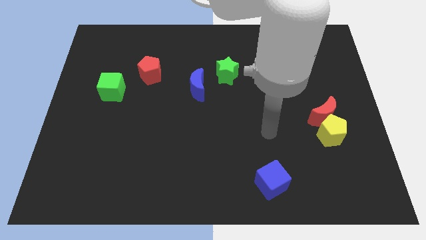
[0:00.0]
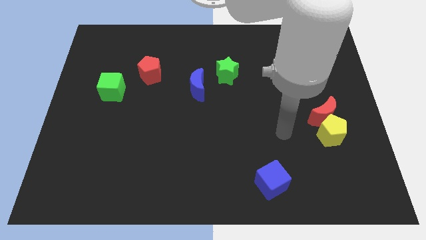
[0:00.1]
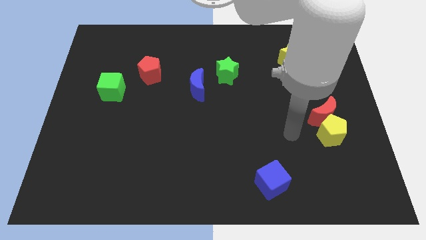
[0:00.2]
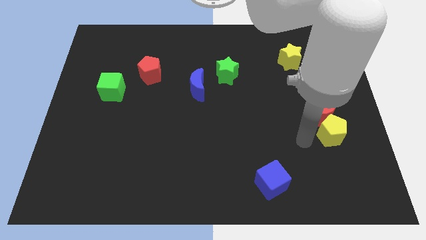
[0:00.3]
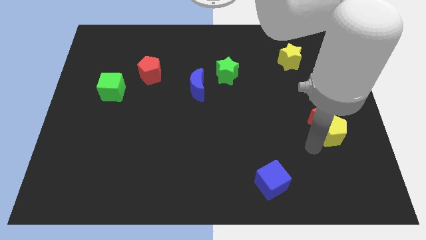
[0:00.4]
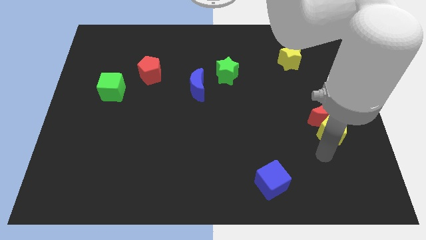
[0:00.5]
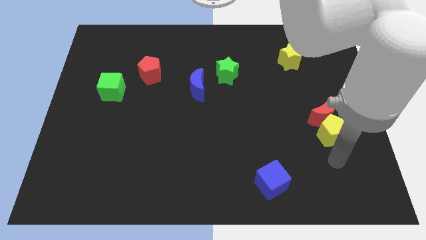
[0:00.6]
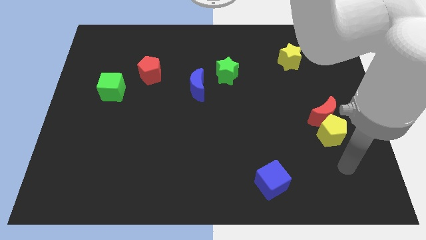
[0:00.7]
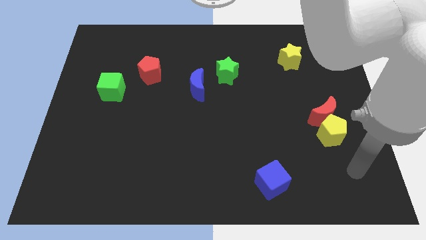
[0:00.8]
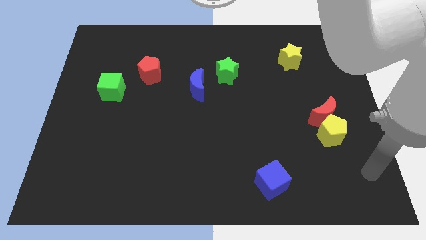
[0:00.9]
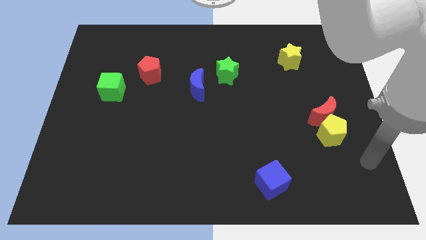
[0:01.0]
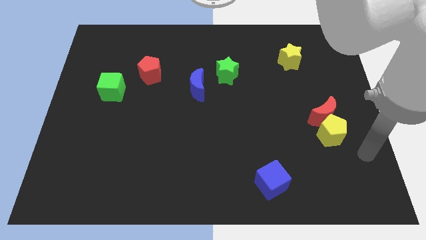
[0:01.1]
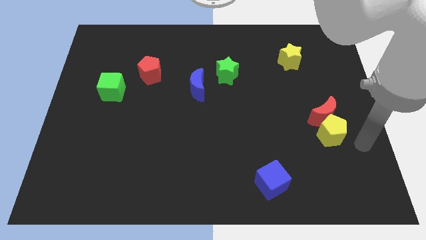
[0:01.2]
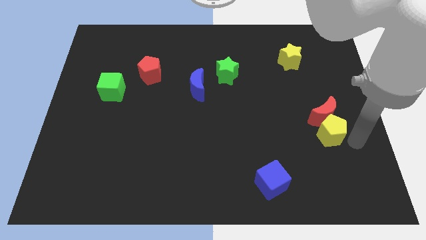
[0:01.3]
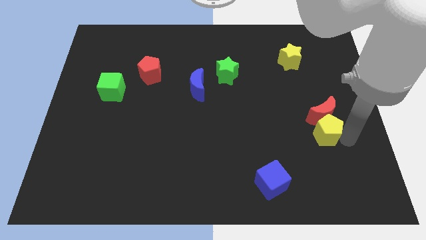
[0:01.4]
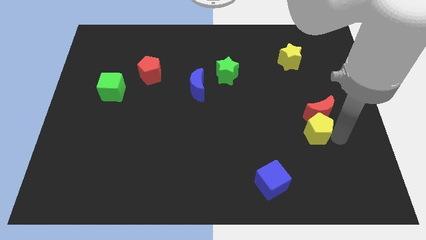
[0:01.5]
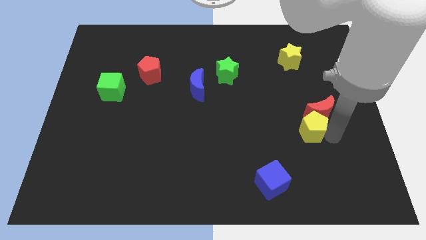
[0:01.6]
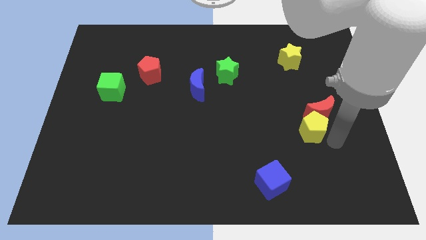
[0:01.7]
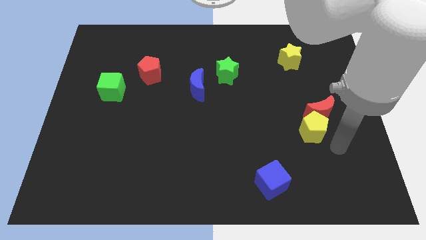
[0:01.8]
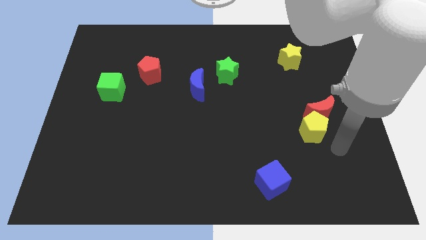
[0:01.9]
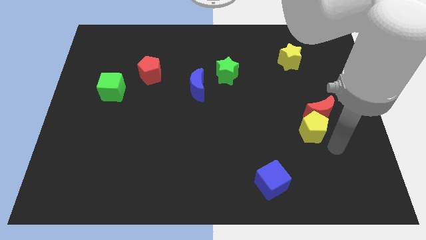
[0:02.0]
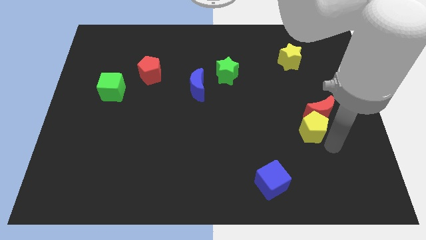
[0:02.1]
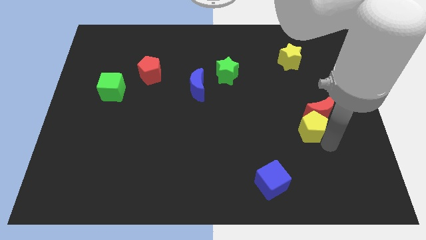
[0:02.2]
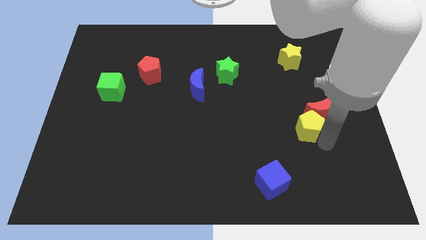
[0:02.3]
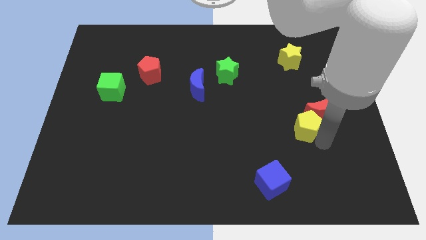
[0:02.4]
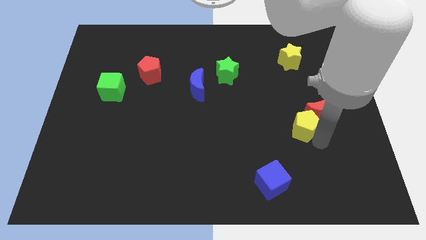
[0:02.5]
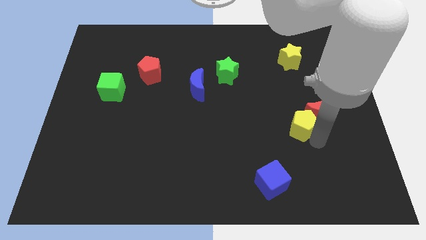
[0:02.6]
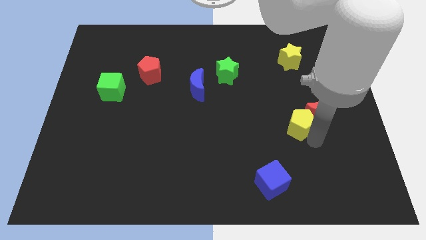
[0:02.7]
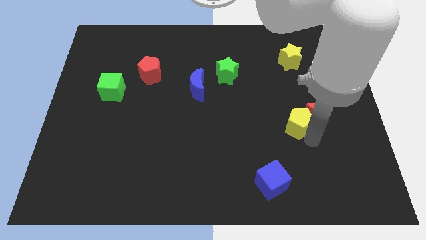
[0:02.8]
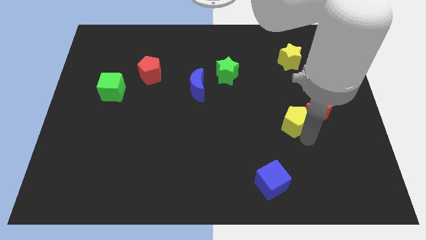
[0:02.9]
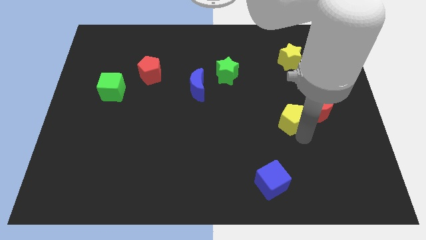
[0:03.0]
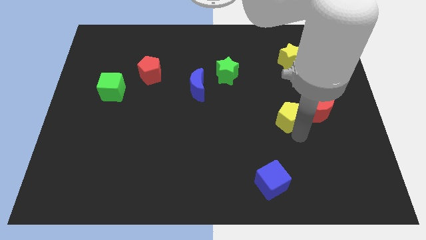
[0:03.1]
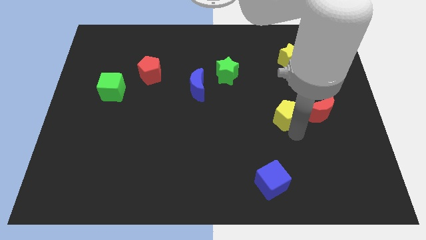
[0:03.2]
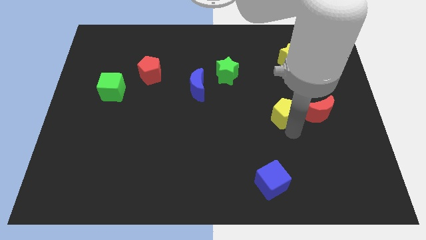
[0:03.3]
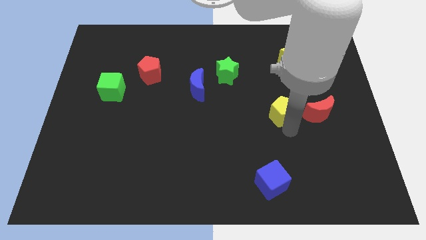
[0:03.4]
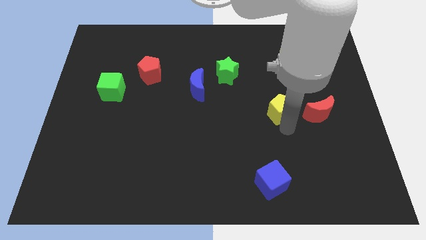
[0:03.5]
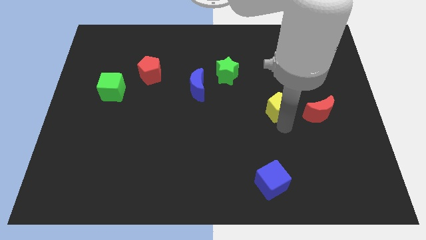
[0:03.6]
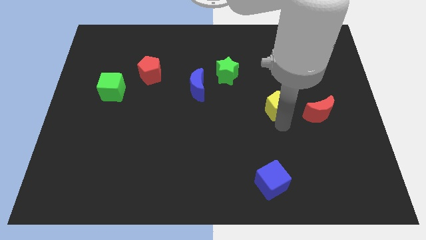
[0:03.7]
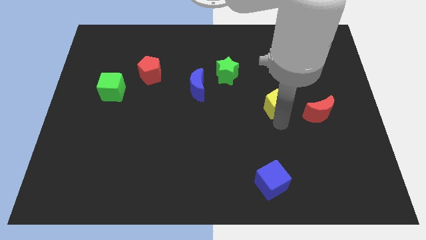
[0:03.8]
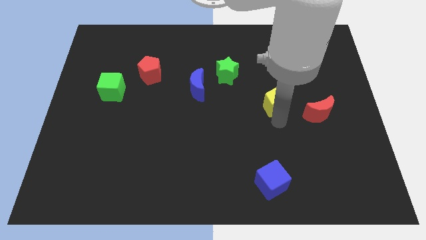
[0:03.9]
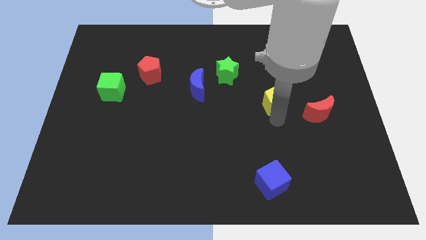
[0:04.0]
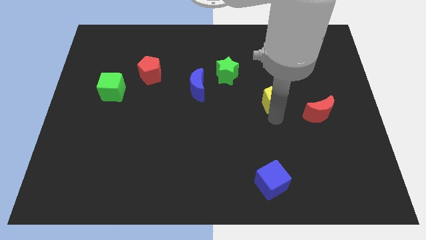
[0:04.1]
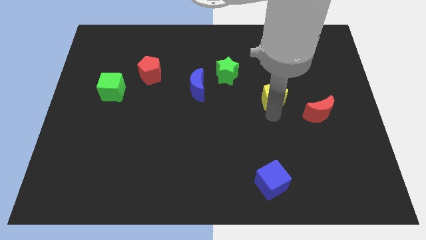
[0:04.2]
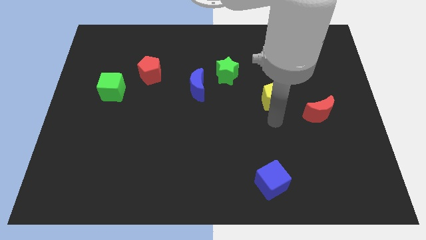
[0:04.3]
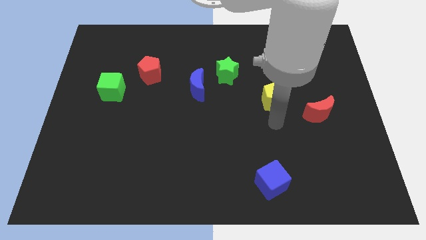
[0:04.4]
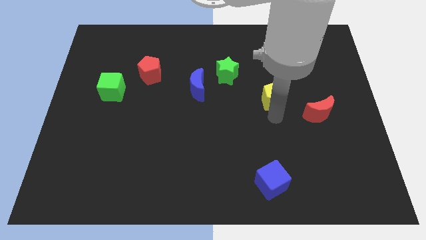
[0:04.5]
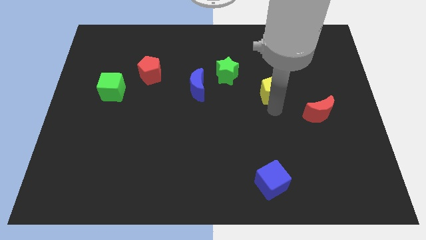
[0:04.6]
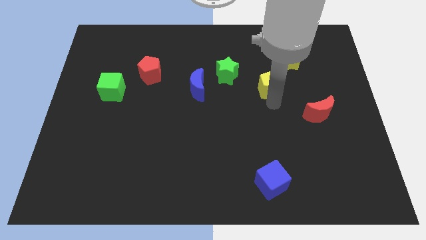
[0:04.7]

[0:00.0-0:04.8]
move the yellow pentagon to the bottom left side of the yellow star

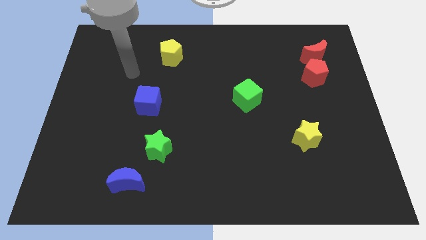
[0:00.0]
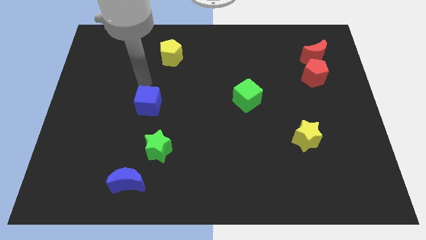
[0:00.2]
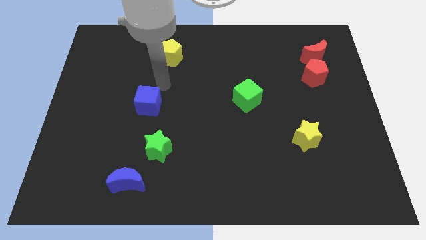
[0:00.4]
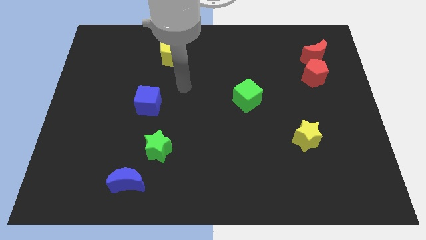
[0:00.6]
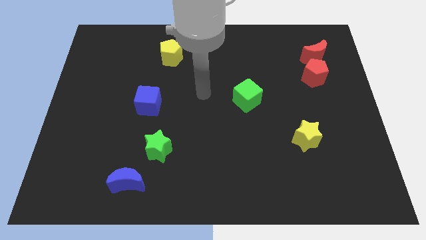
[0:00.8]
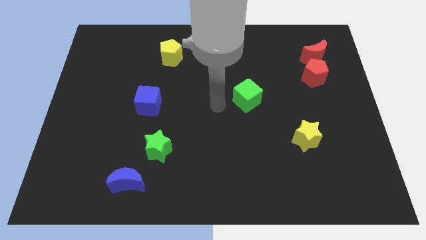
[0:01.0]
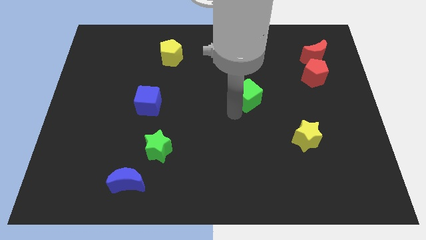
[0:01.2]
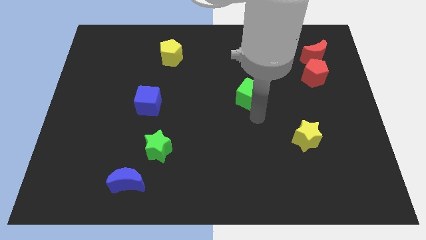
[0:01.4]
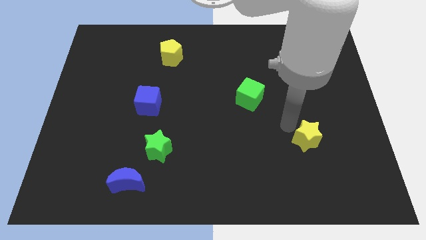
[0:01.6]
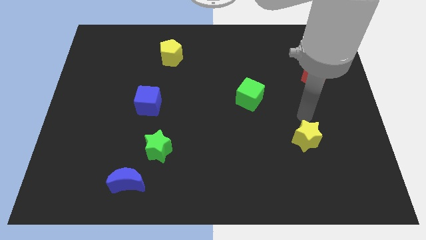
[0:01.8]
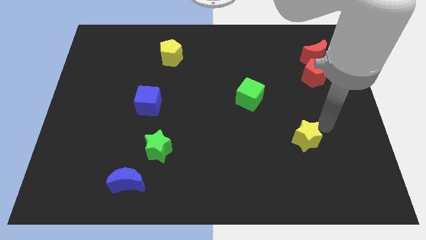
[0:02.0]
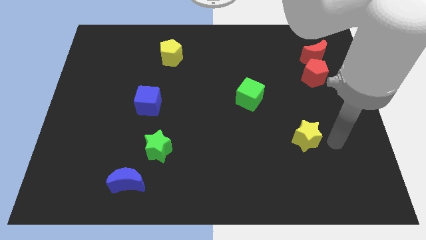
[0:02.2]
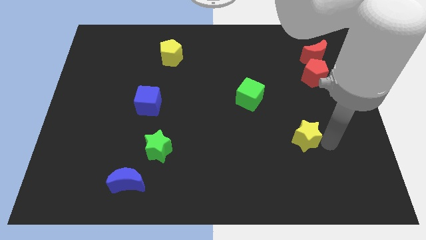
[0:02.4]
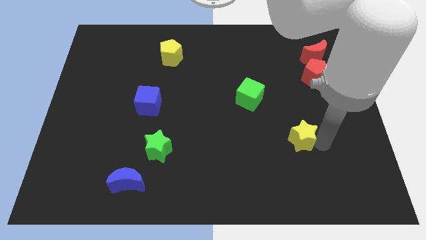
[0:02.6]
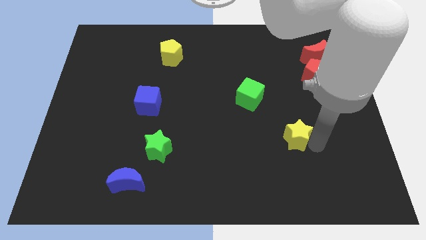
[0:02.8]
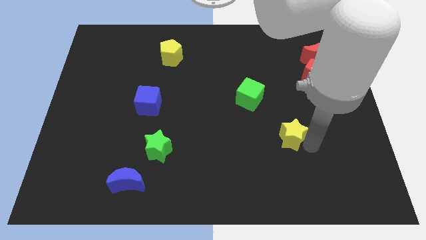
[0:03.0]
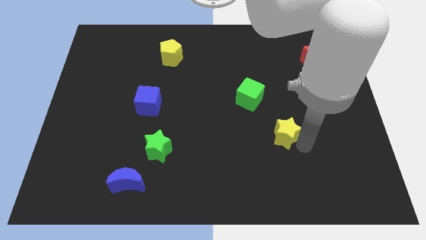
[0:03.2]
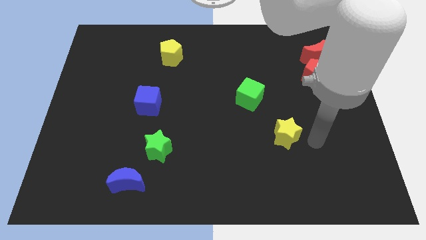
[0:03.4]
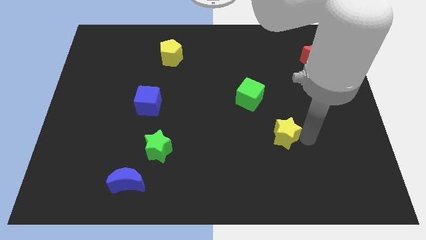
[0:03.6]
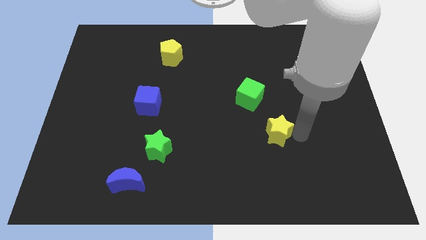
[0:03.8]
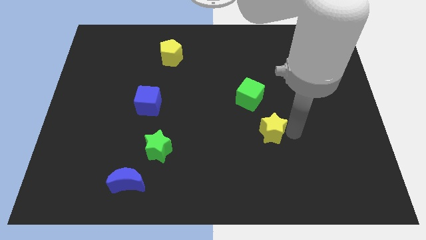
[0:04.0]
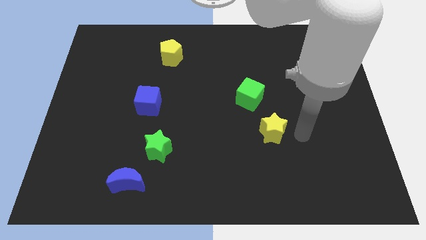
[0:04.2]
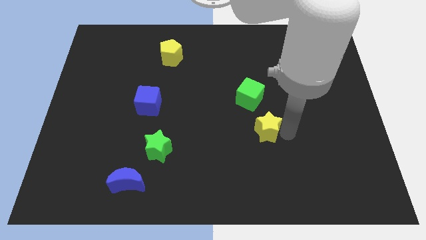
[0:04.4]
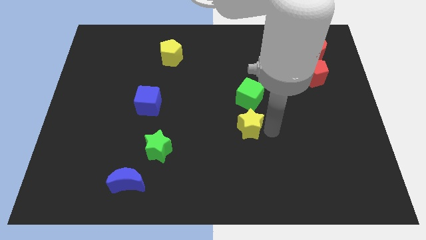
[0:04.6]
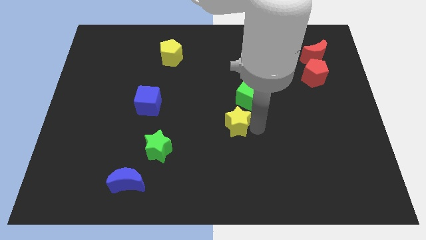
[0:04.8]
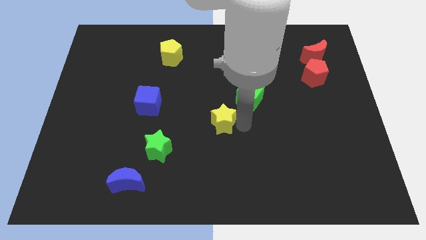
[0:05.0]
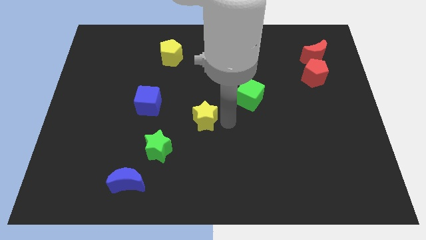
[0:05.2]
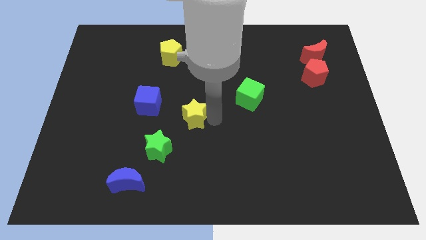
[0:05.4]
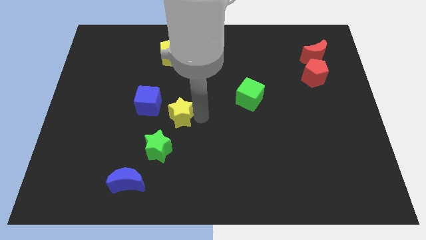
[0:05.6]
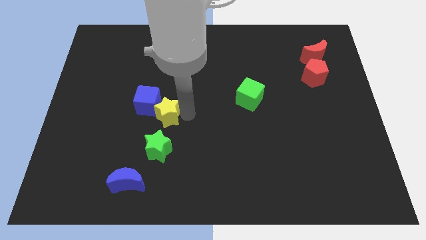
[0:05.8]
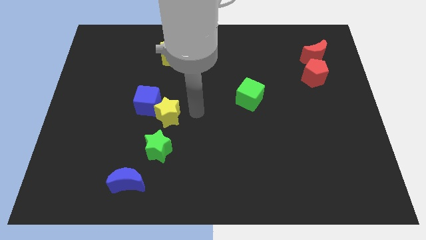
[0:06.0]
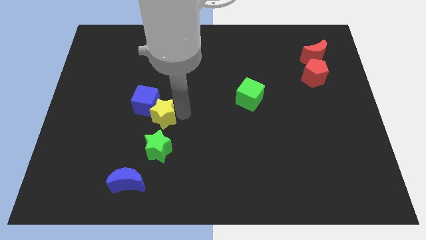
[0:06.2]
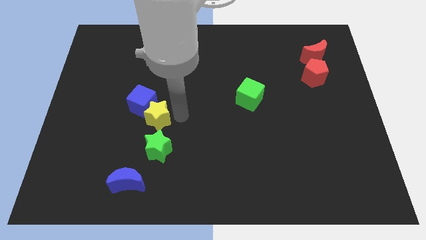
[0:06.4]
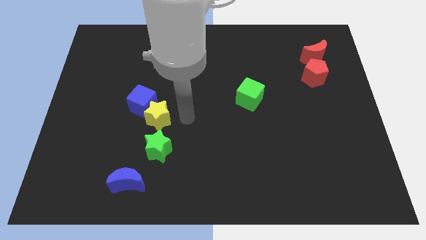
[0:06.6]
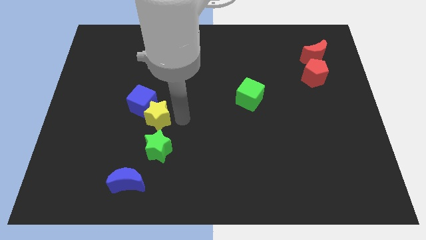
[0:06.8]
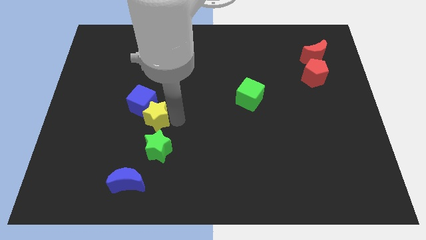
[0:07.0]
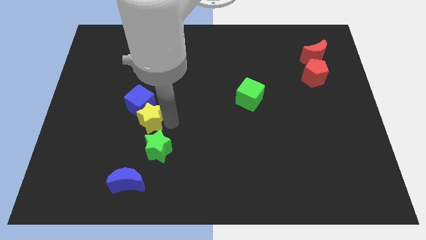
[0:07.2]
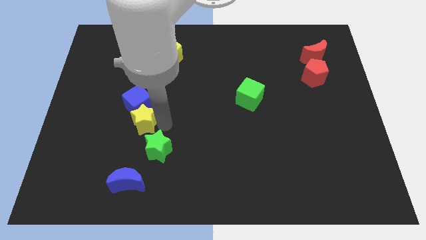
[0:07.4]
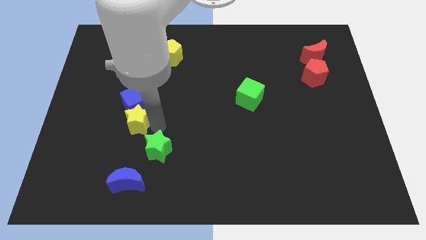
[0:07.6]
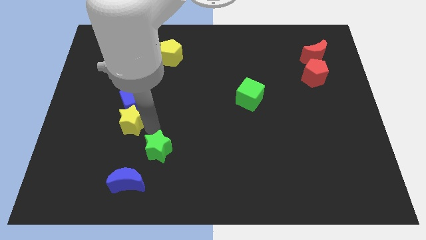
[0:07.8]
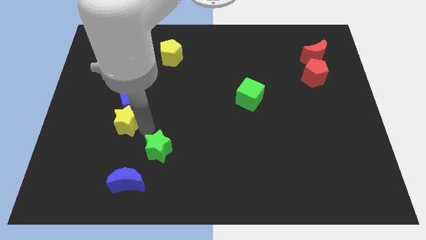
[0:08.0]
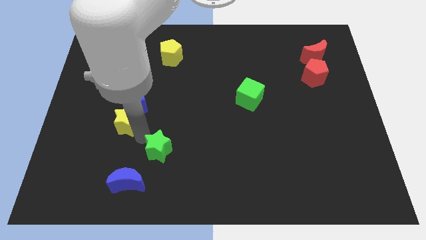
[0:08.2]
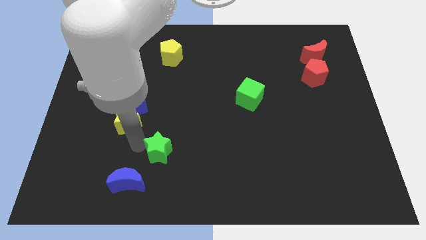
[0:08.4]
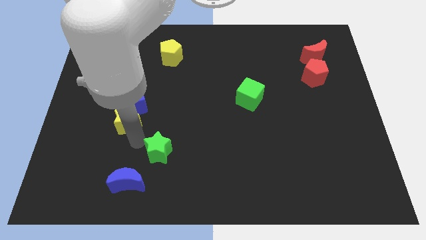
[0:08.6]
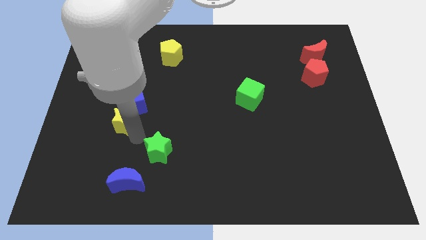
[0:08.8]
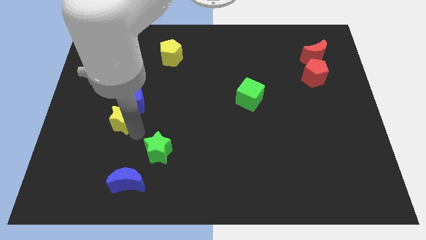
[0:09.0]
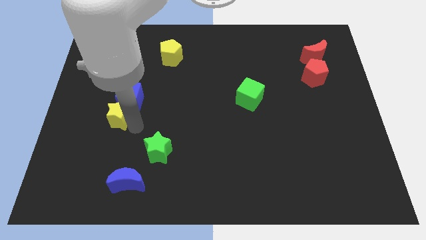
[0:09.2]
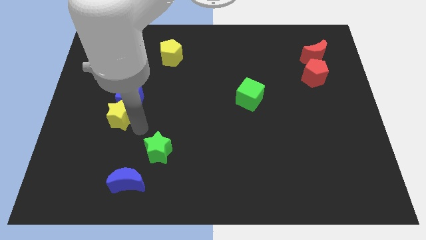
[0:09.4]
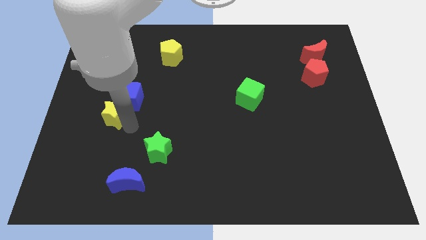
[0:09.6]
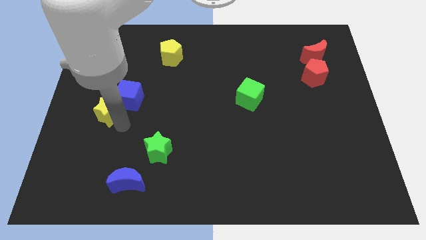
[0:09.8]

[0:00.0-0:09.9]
slide the yellow star left of the blue cube
